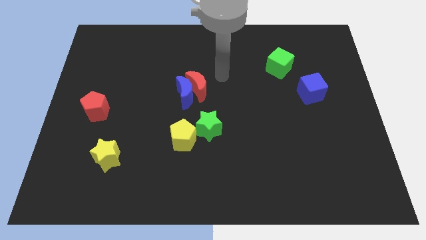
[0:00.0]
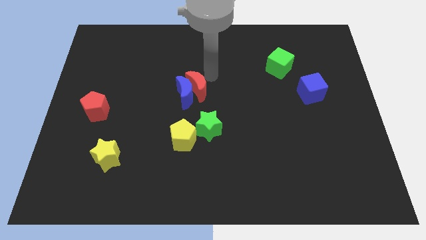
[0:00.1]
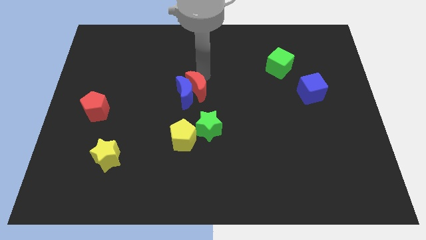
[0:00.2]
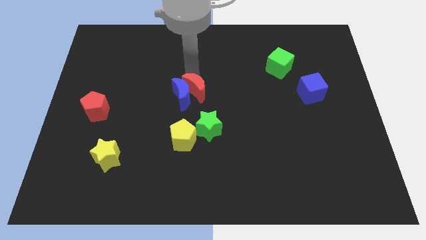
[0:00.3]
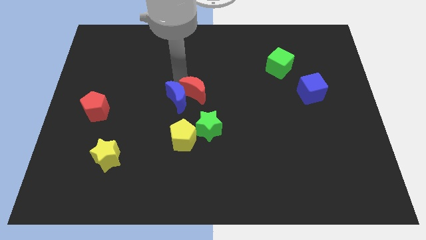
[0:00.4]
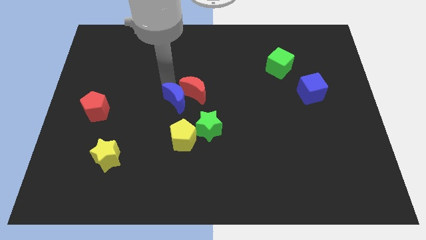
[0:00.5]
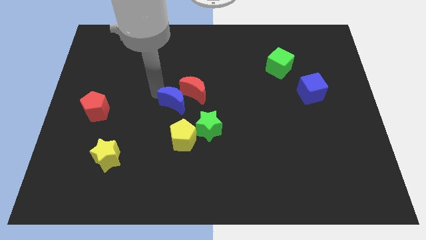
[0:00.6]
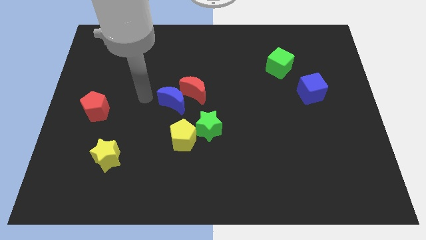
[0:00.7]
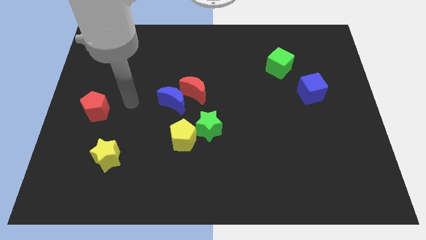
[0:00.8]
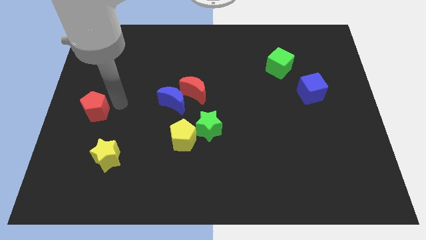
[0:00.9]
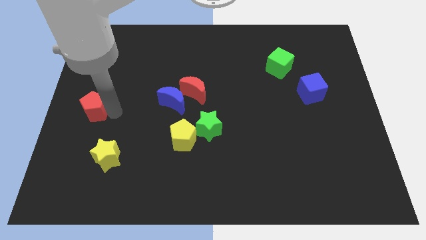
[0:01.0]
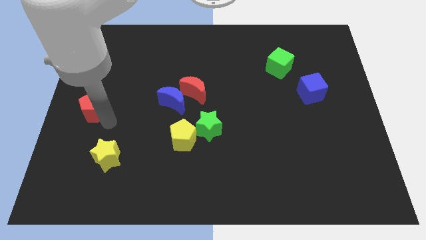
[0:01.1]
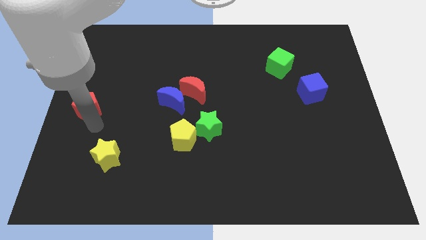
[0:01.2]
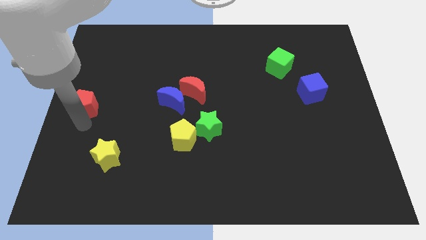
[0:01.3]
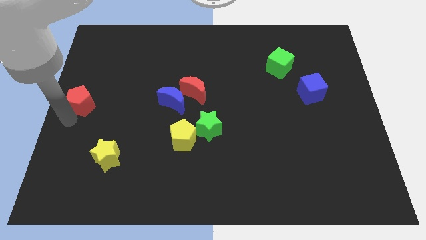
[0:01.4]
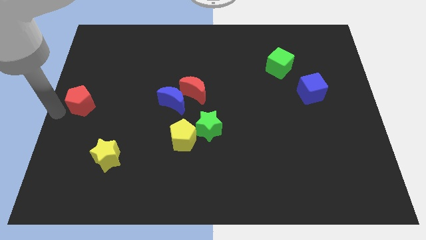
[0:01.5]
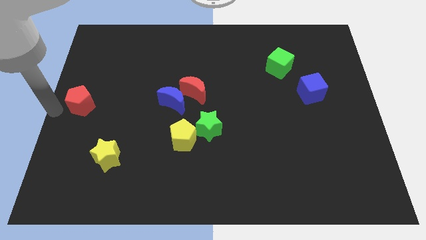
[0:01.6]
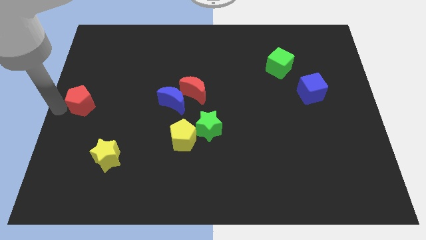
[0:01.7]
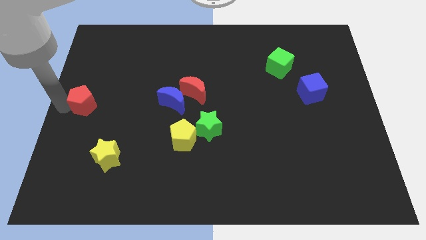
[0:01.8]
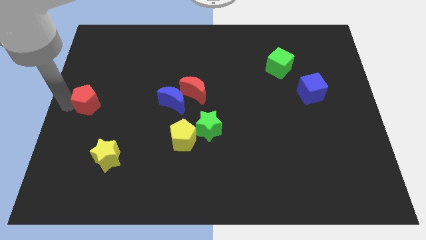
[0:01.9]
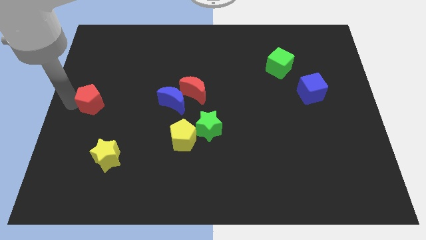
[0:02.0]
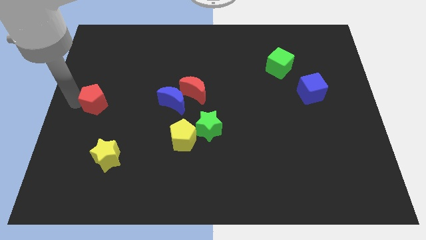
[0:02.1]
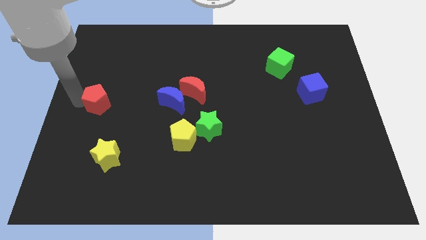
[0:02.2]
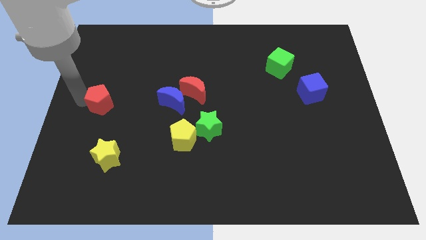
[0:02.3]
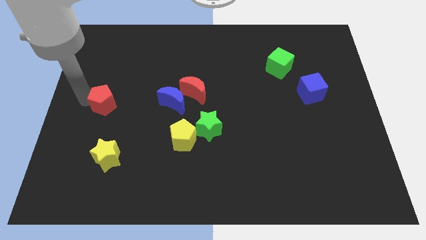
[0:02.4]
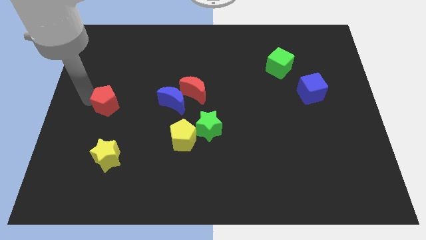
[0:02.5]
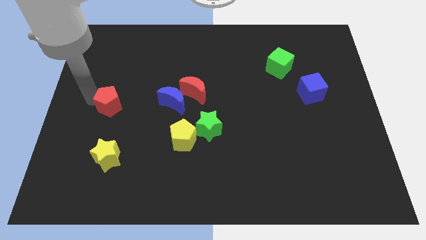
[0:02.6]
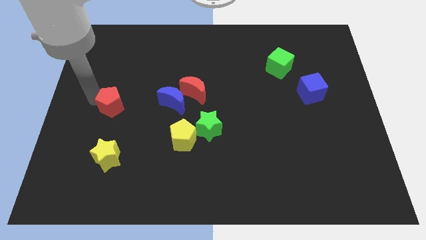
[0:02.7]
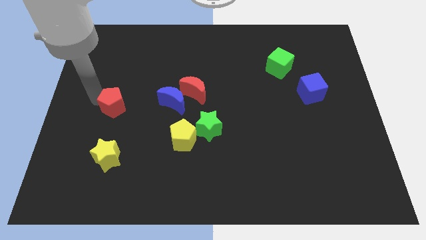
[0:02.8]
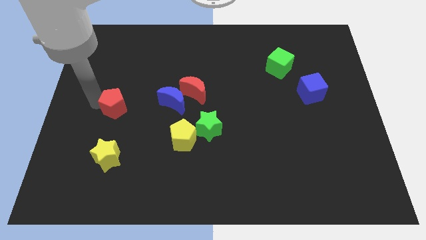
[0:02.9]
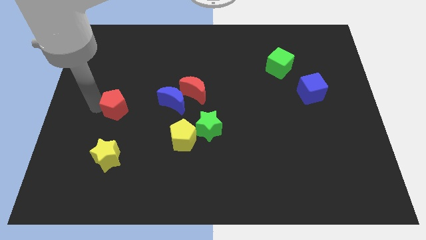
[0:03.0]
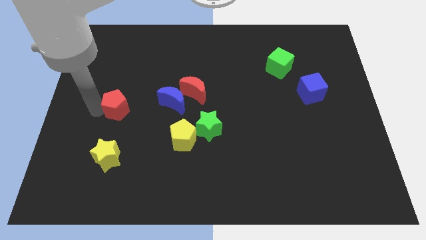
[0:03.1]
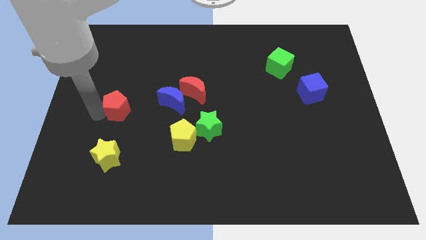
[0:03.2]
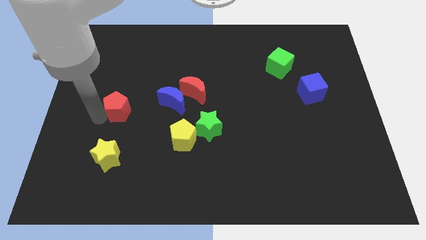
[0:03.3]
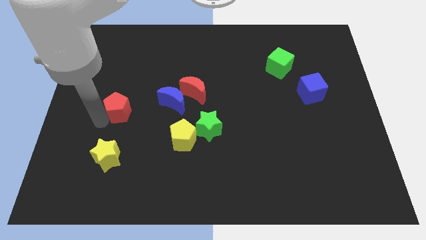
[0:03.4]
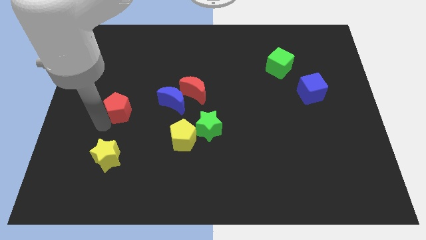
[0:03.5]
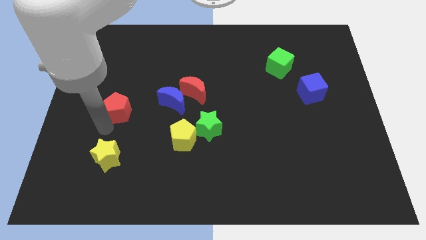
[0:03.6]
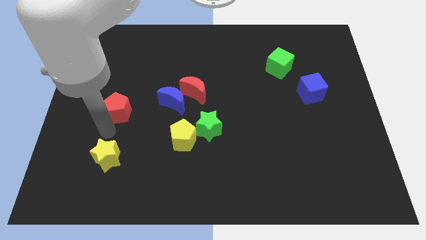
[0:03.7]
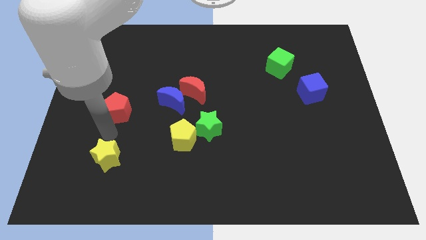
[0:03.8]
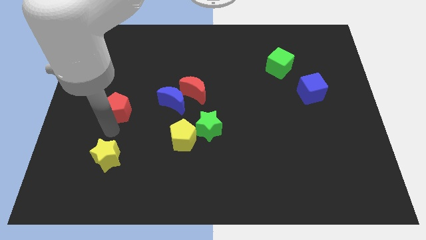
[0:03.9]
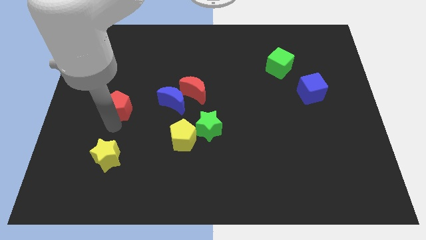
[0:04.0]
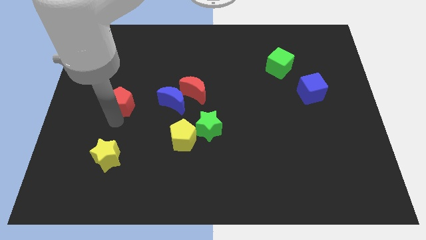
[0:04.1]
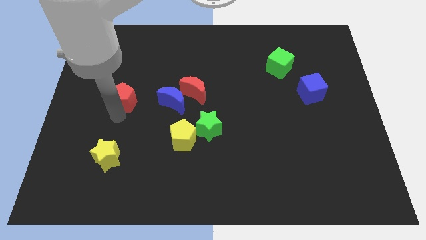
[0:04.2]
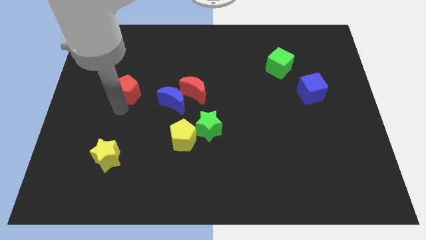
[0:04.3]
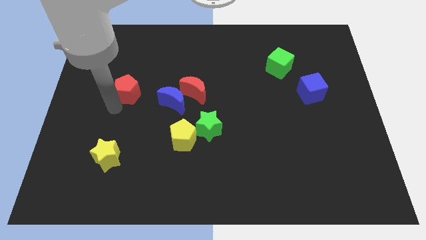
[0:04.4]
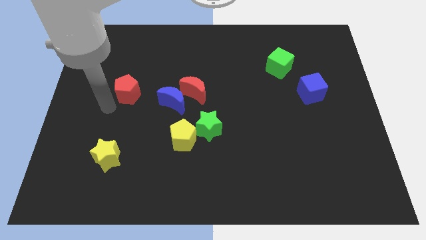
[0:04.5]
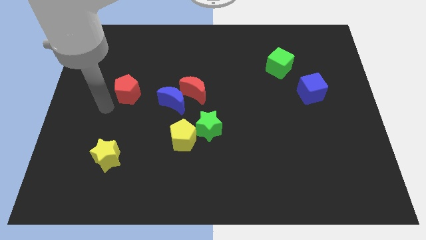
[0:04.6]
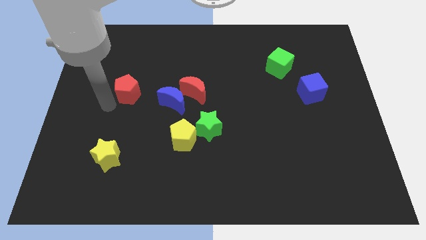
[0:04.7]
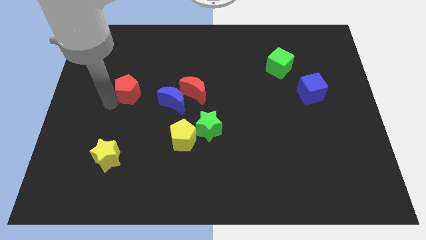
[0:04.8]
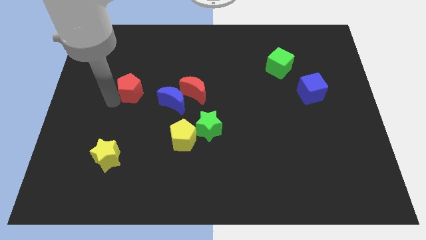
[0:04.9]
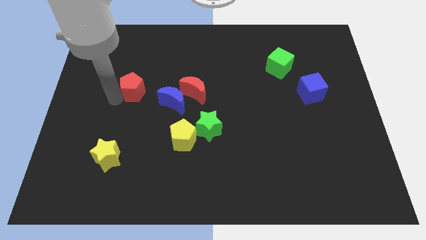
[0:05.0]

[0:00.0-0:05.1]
put the red pentagon diagonally up and to the left of the blue moon

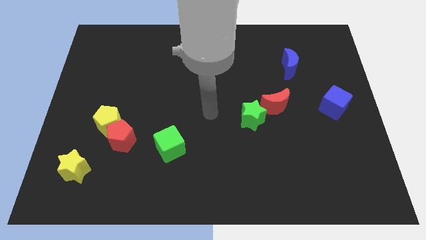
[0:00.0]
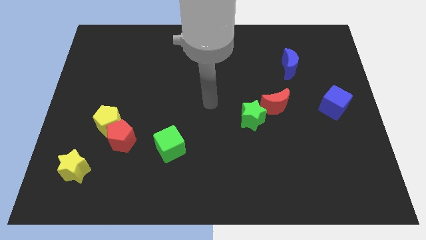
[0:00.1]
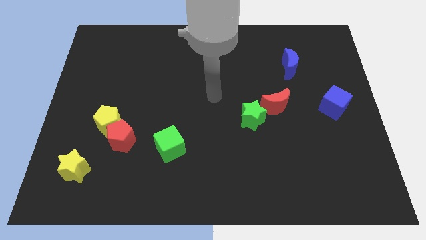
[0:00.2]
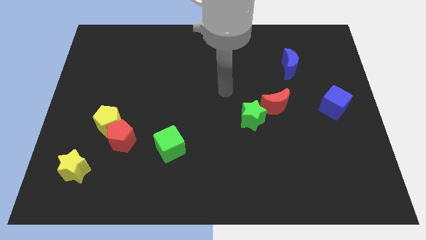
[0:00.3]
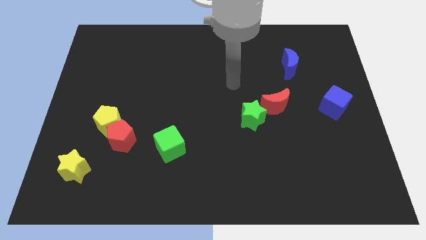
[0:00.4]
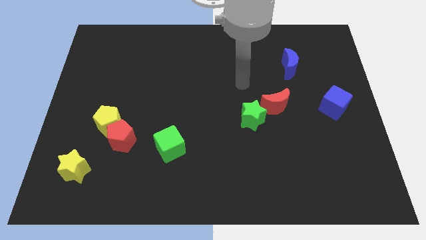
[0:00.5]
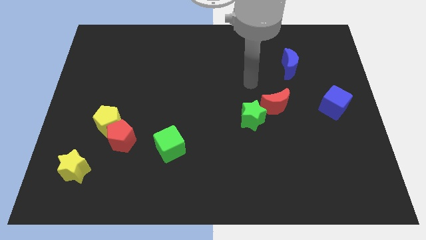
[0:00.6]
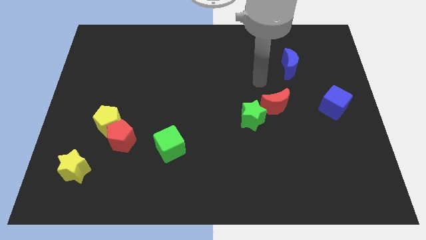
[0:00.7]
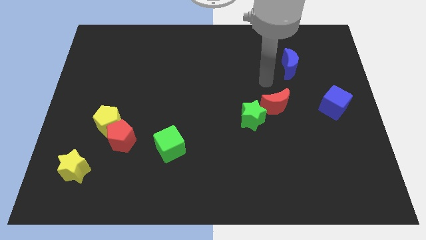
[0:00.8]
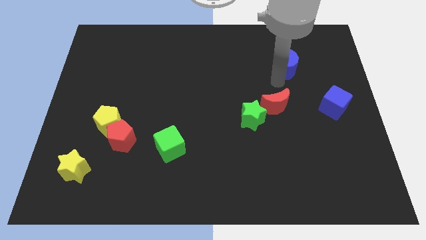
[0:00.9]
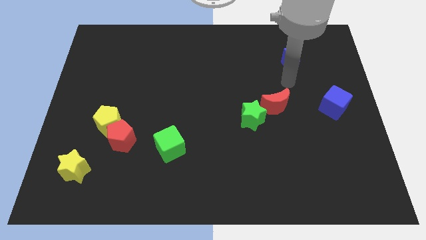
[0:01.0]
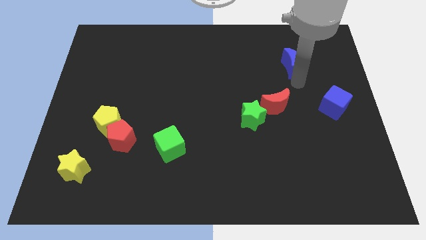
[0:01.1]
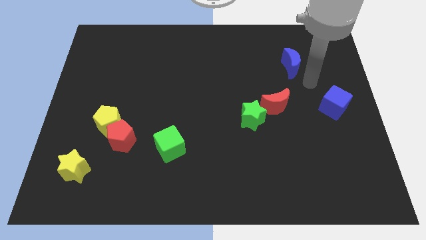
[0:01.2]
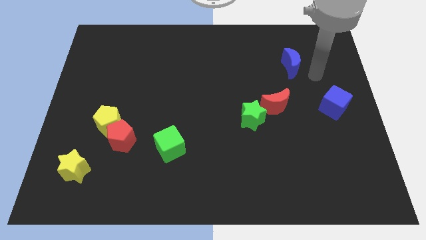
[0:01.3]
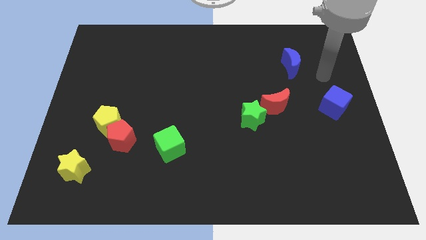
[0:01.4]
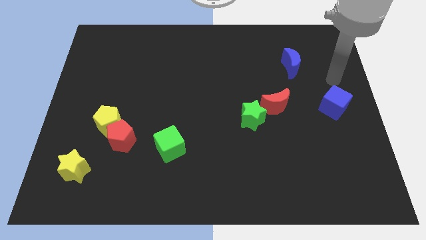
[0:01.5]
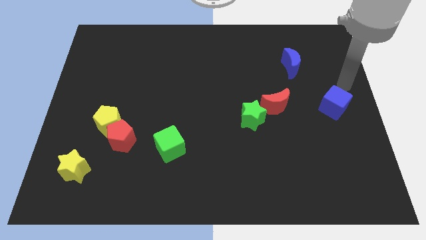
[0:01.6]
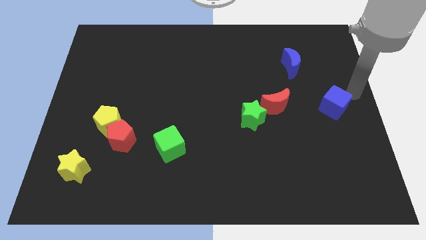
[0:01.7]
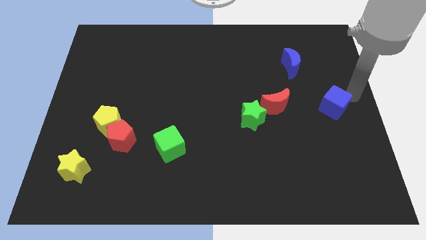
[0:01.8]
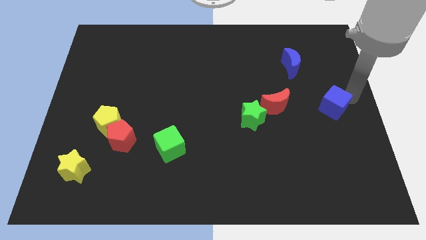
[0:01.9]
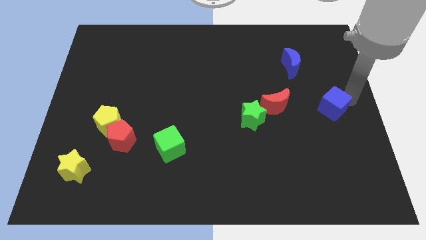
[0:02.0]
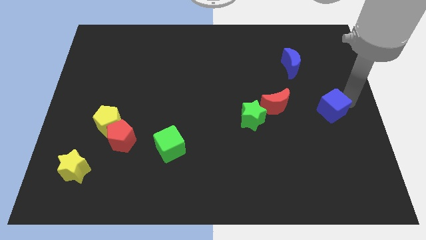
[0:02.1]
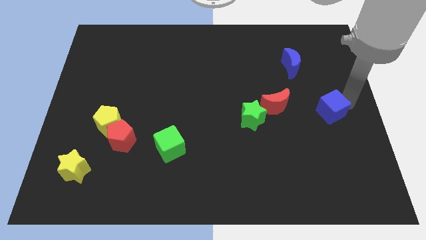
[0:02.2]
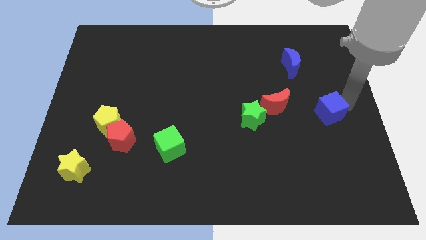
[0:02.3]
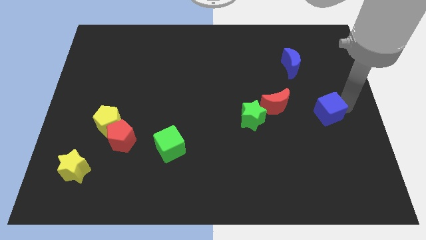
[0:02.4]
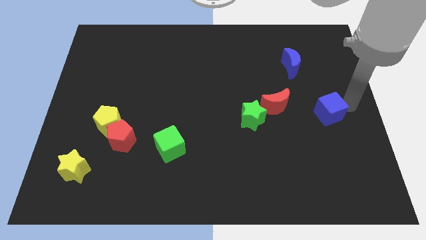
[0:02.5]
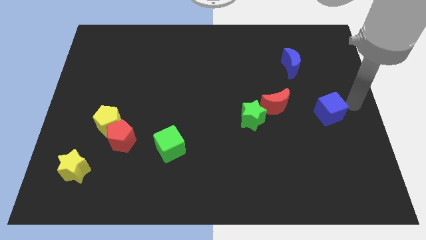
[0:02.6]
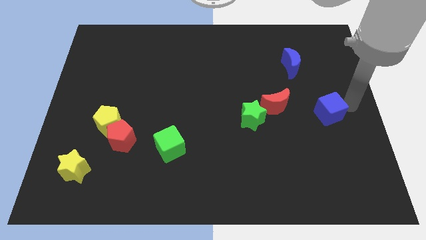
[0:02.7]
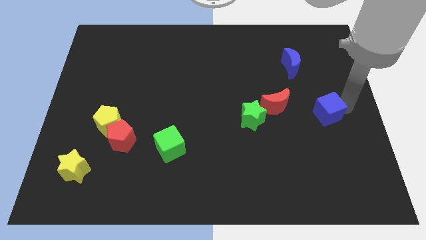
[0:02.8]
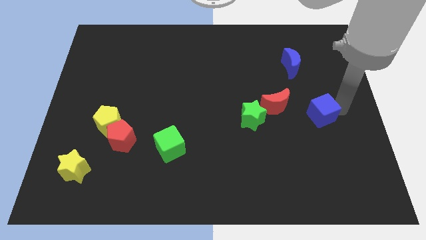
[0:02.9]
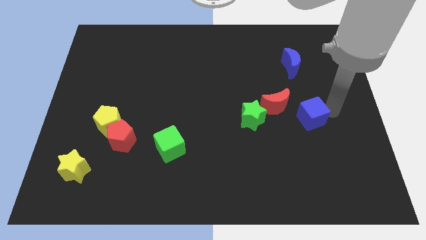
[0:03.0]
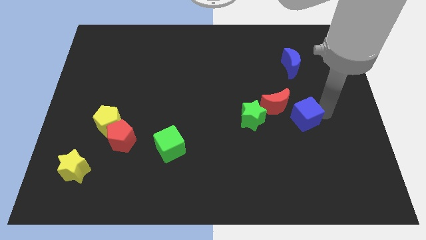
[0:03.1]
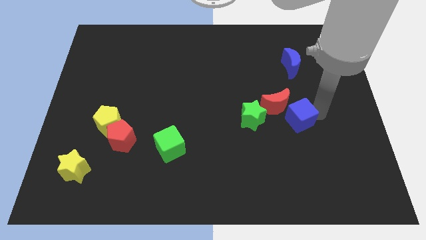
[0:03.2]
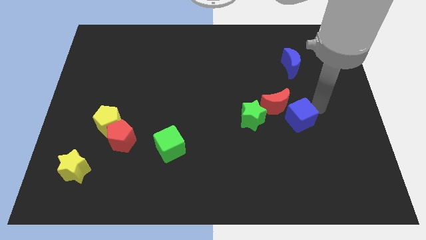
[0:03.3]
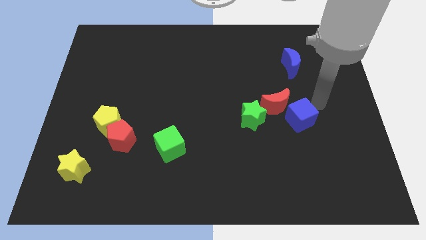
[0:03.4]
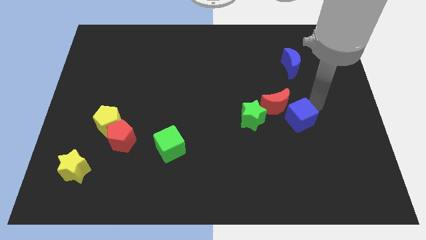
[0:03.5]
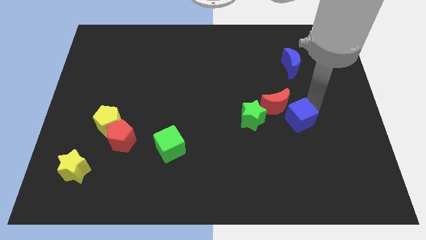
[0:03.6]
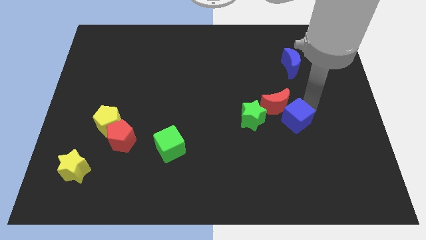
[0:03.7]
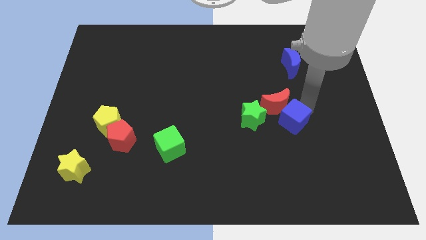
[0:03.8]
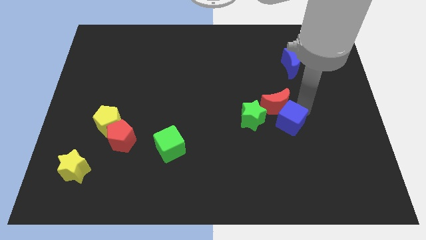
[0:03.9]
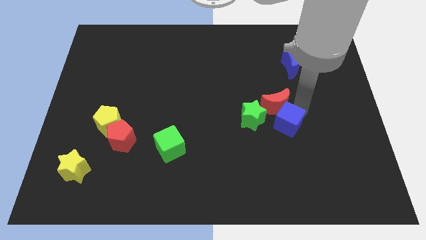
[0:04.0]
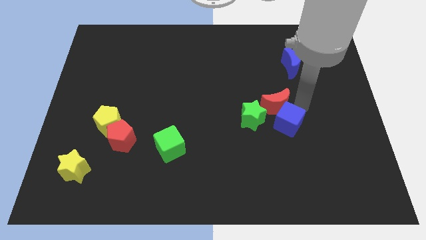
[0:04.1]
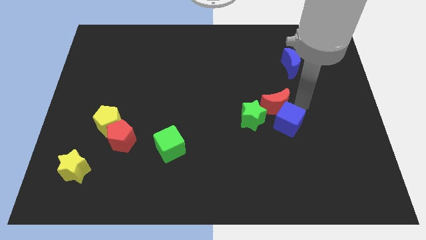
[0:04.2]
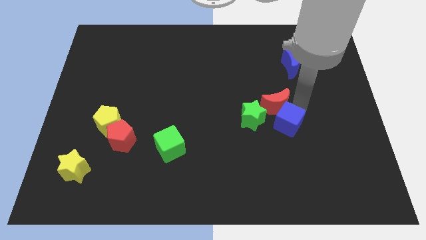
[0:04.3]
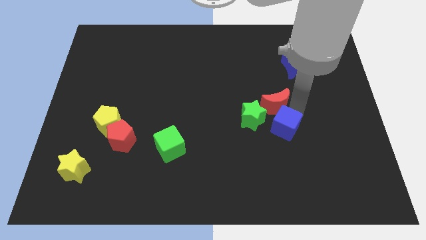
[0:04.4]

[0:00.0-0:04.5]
put the blue cube to the bottom right side of the green star
